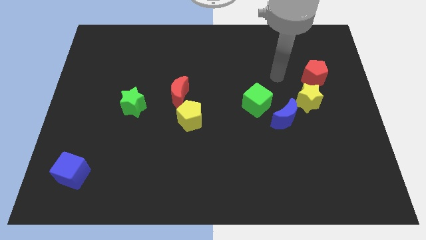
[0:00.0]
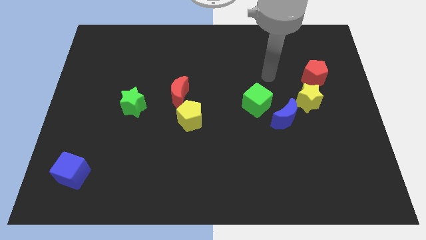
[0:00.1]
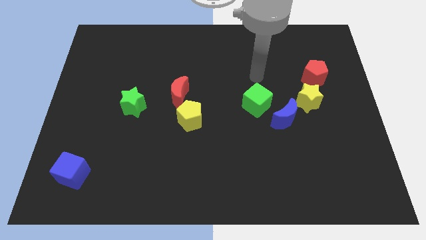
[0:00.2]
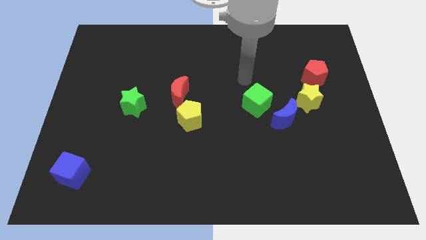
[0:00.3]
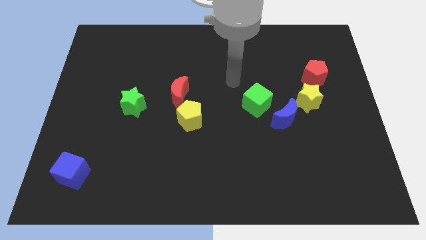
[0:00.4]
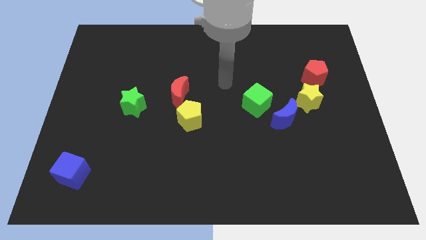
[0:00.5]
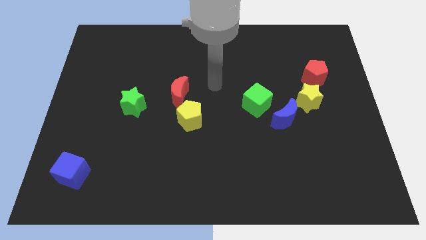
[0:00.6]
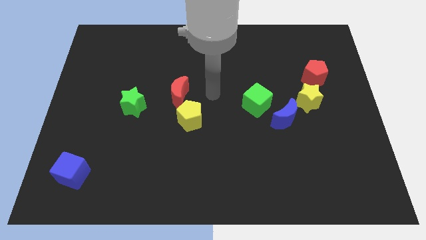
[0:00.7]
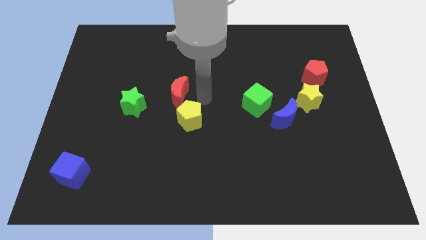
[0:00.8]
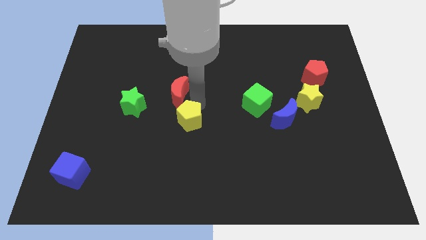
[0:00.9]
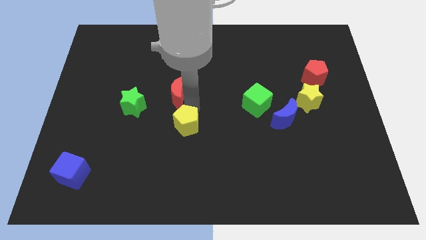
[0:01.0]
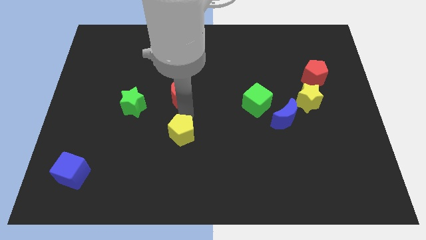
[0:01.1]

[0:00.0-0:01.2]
move the red moon away from the yellow pentagon

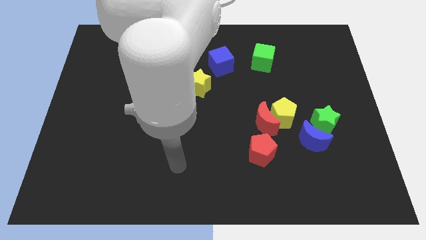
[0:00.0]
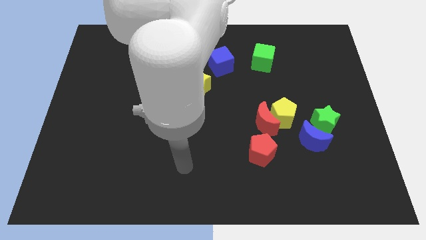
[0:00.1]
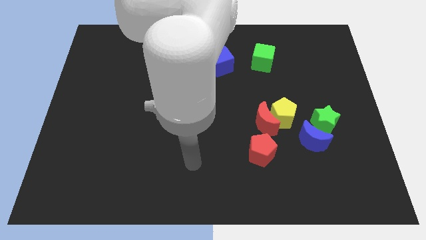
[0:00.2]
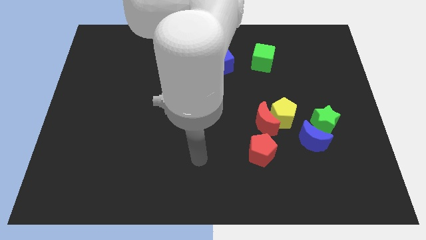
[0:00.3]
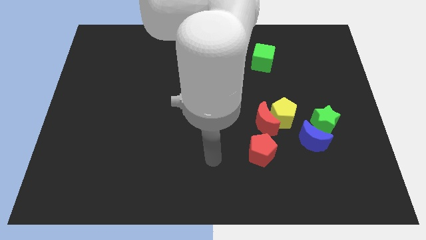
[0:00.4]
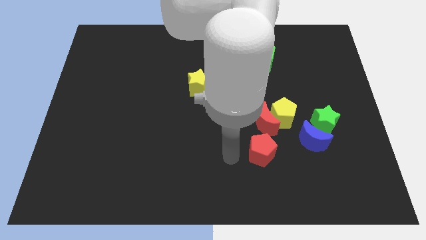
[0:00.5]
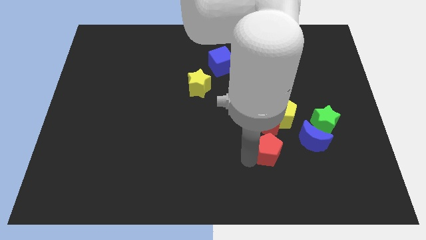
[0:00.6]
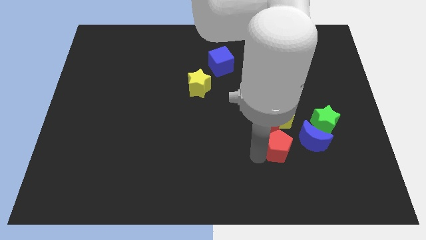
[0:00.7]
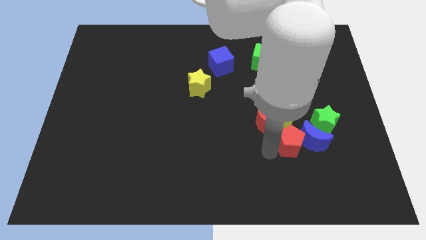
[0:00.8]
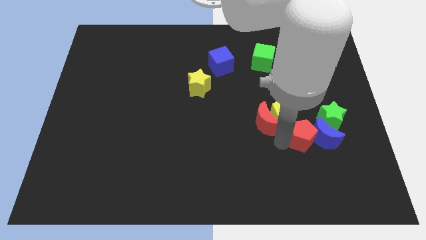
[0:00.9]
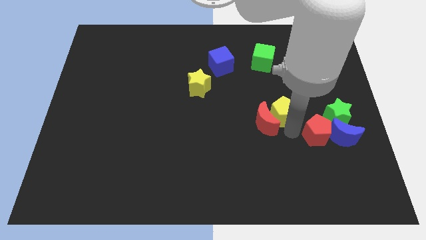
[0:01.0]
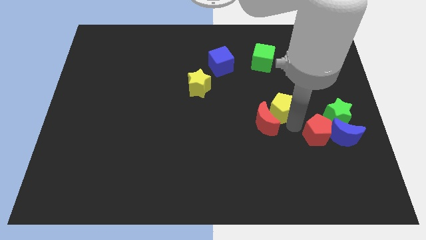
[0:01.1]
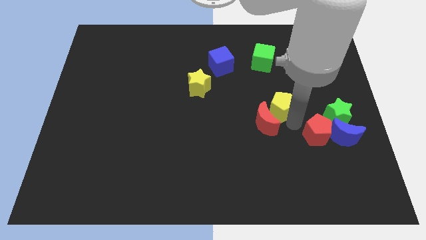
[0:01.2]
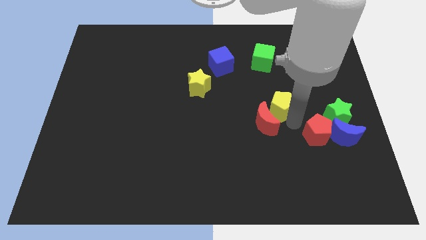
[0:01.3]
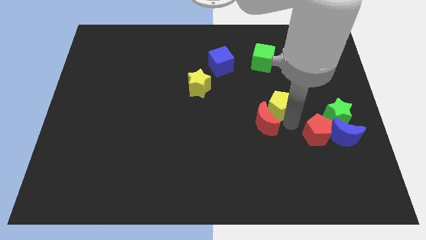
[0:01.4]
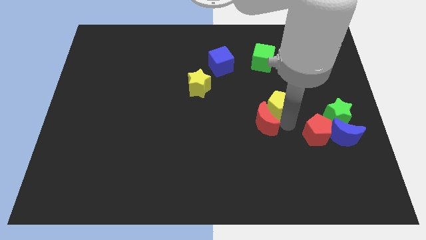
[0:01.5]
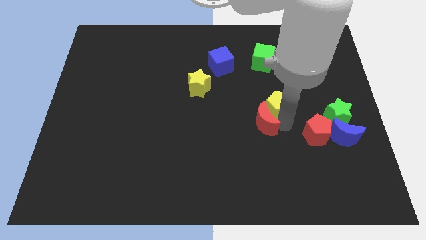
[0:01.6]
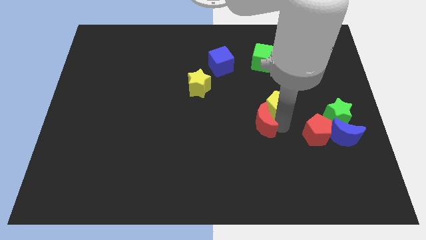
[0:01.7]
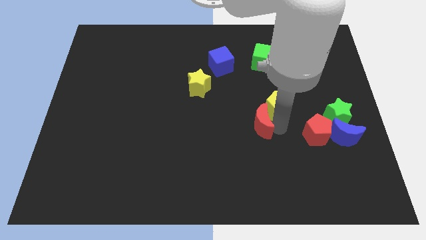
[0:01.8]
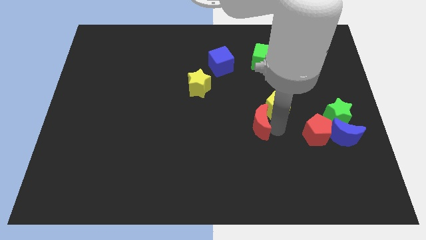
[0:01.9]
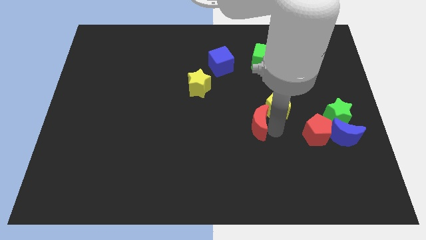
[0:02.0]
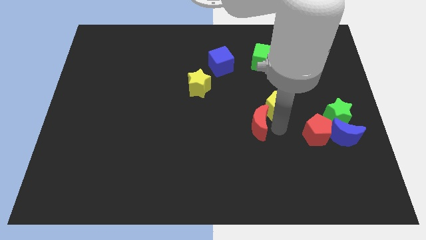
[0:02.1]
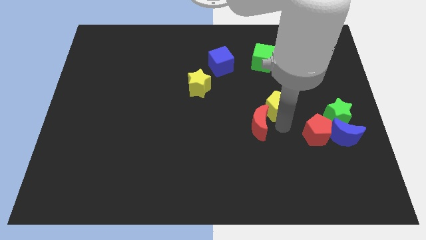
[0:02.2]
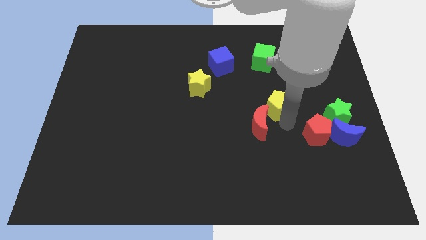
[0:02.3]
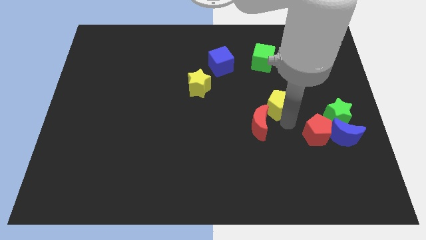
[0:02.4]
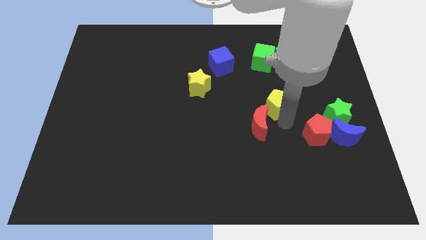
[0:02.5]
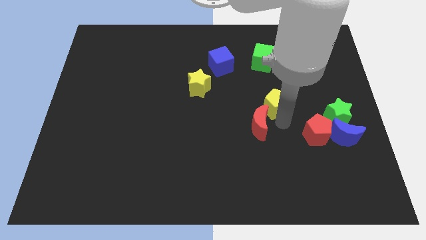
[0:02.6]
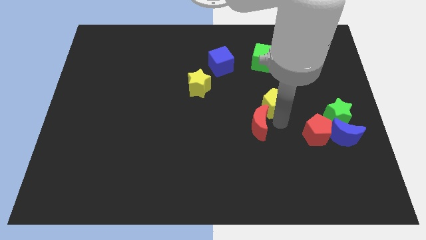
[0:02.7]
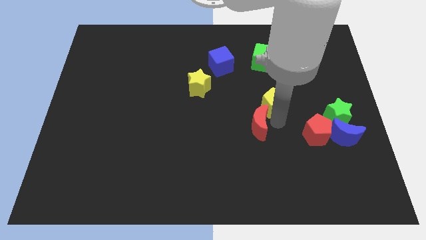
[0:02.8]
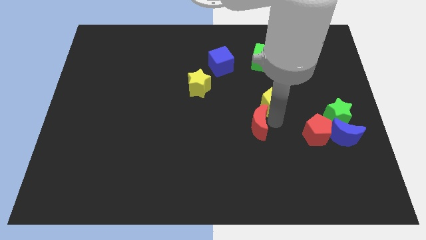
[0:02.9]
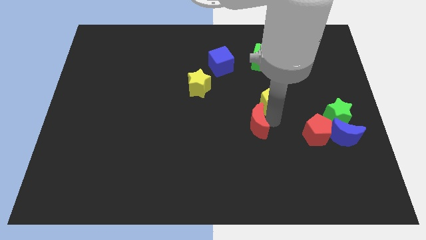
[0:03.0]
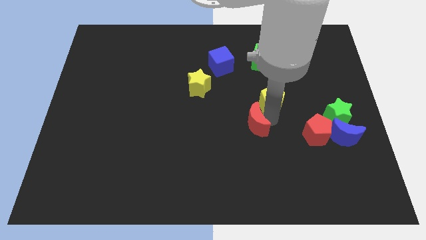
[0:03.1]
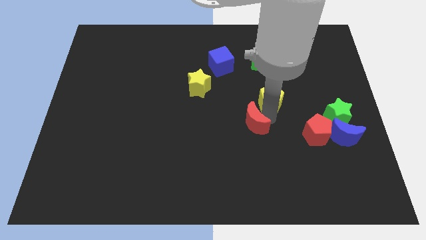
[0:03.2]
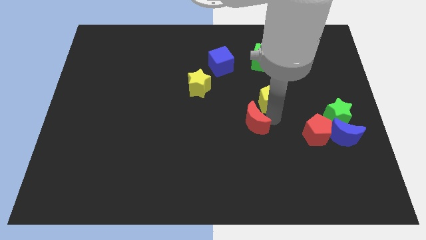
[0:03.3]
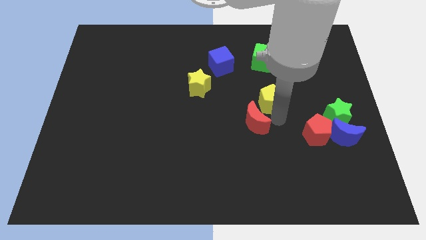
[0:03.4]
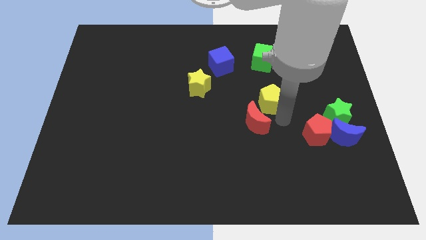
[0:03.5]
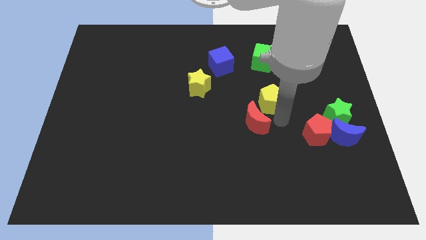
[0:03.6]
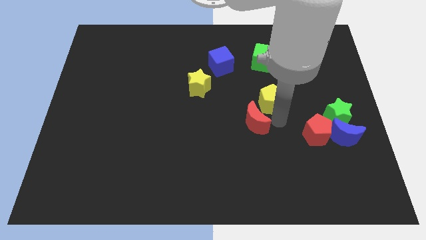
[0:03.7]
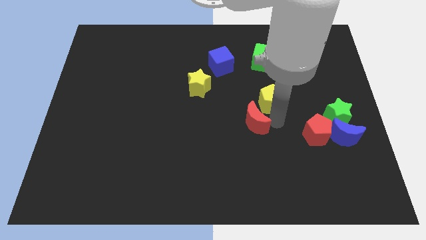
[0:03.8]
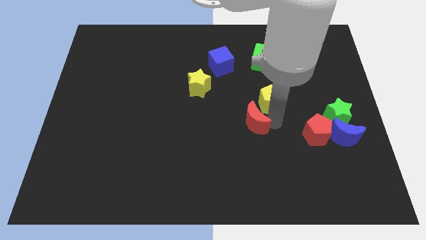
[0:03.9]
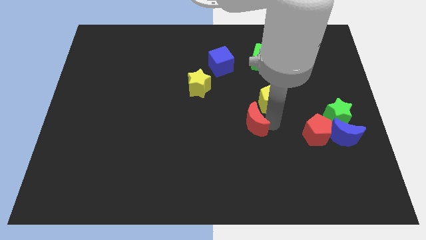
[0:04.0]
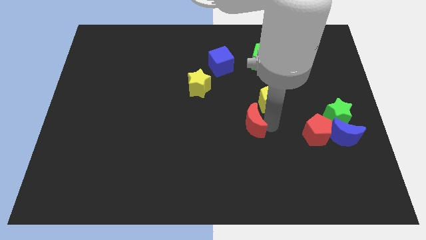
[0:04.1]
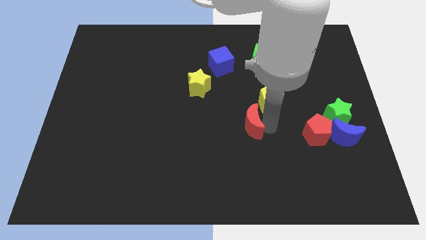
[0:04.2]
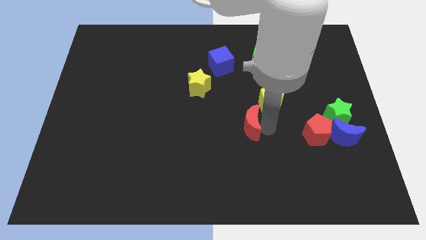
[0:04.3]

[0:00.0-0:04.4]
pull the red moon apart from the yellow pentagon and red pentagon

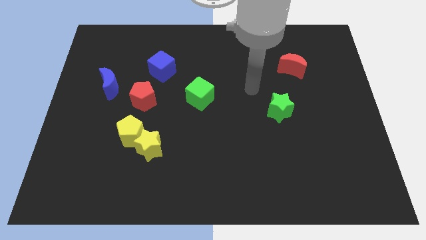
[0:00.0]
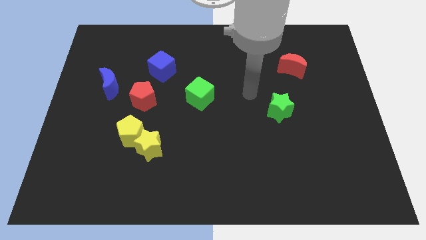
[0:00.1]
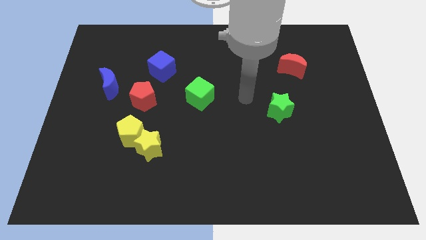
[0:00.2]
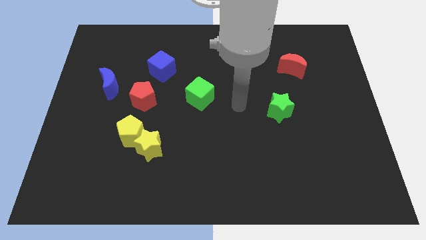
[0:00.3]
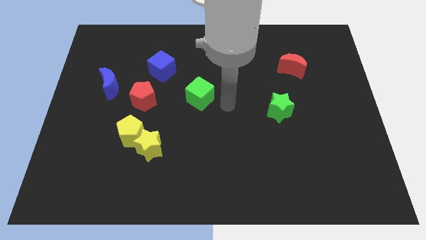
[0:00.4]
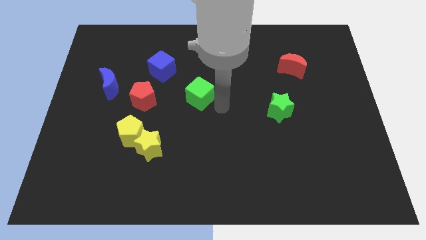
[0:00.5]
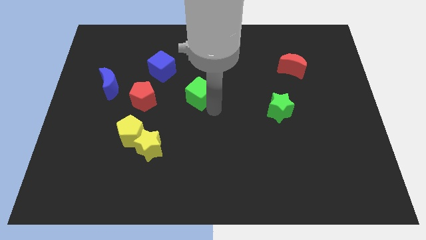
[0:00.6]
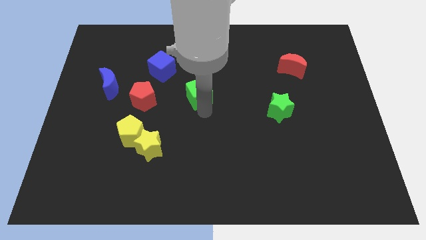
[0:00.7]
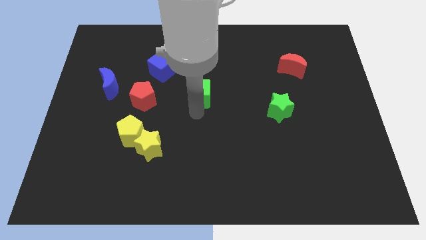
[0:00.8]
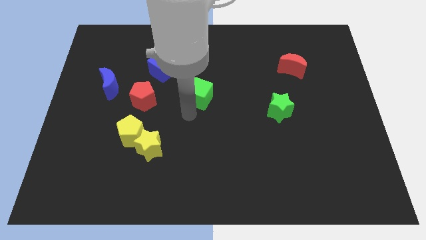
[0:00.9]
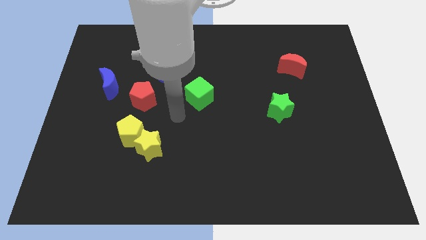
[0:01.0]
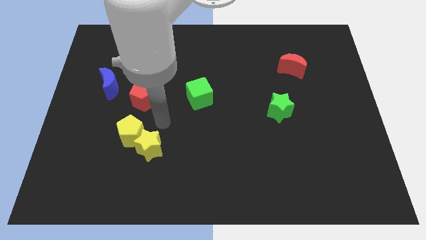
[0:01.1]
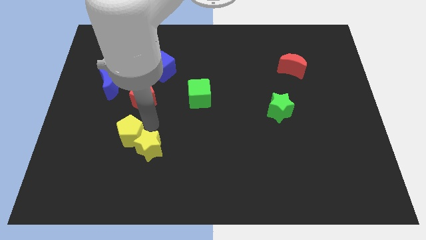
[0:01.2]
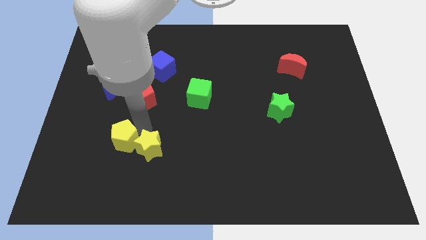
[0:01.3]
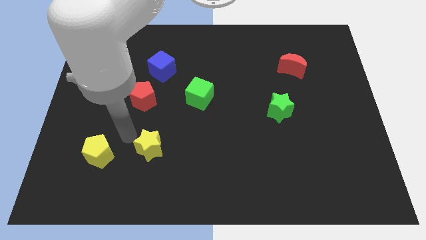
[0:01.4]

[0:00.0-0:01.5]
move the yellow star away from the yellow pentagon

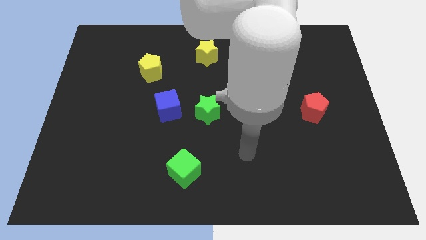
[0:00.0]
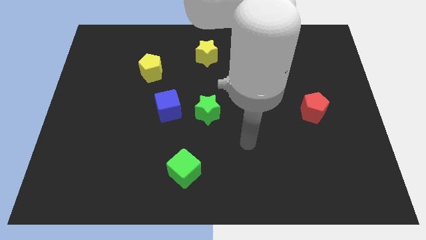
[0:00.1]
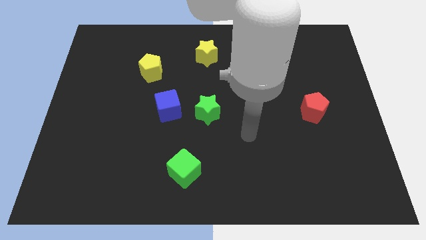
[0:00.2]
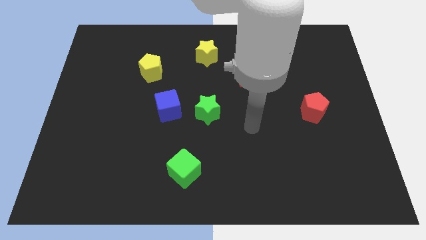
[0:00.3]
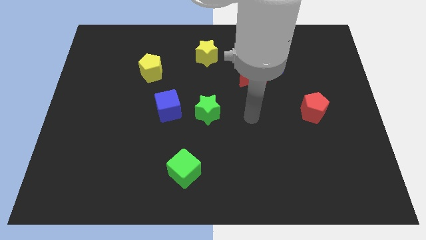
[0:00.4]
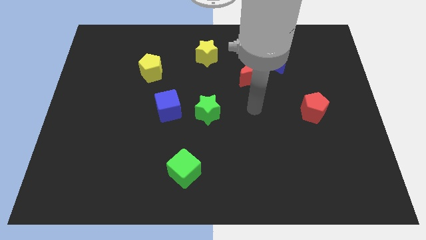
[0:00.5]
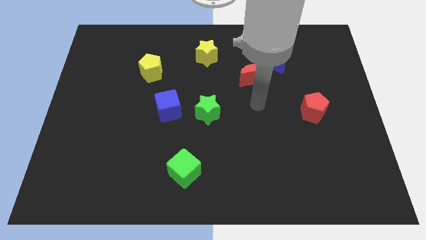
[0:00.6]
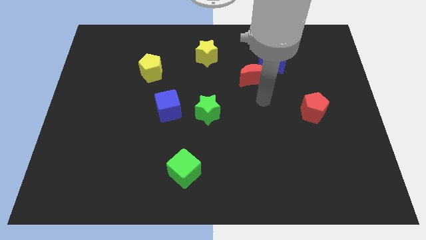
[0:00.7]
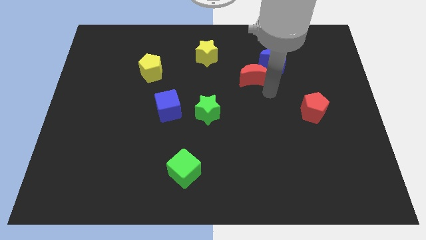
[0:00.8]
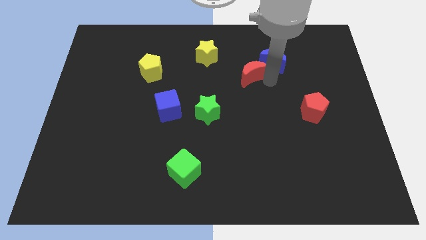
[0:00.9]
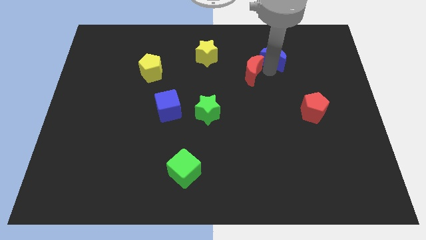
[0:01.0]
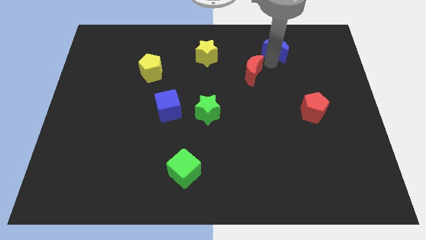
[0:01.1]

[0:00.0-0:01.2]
pull the red moon apart from the blue moon

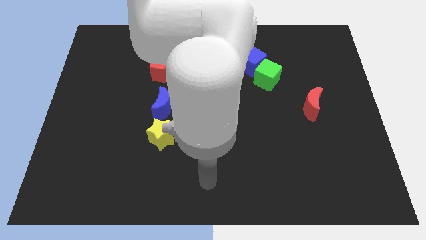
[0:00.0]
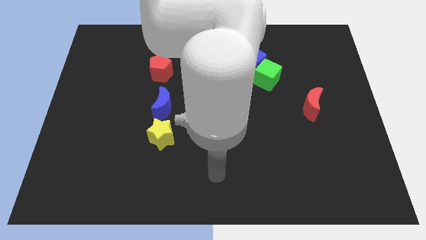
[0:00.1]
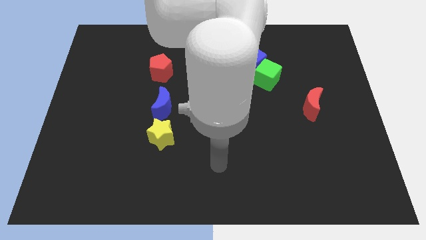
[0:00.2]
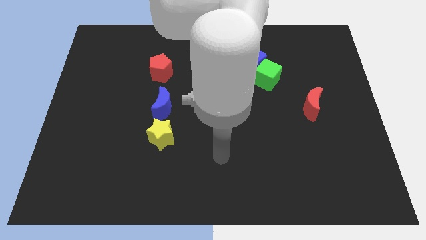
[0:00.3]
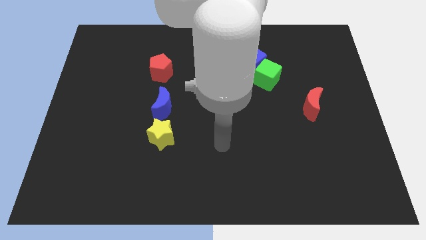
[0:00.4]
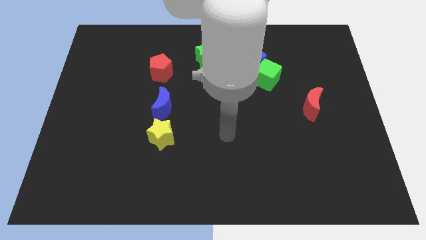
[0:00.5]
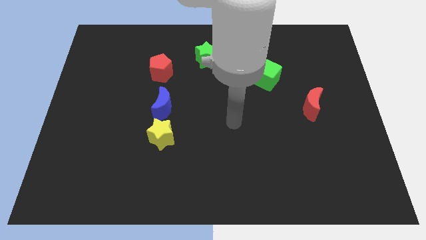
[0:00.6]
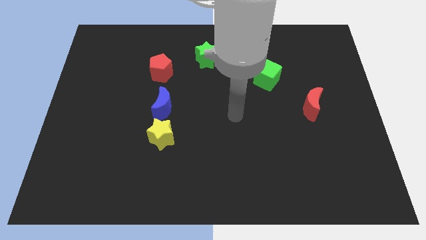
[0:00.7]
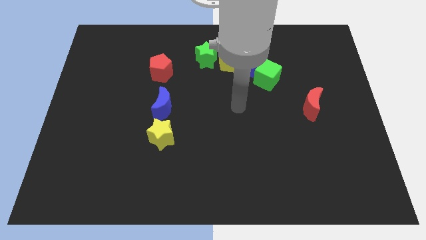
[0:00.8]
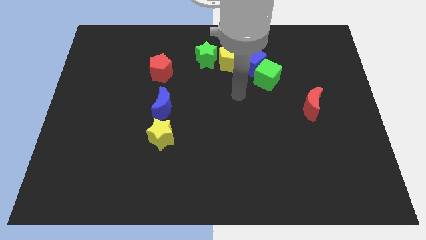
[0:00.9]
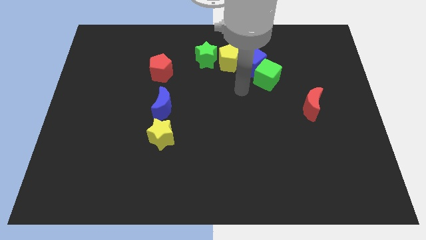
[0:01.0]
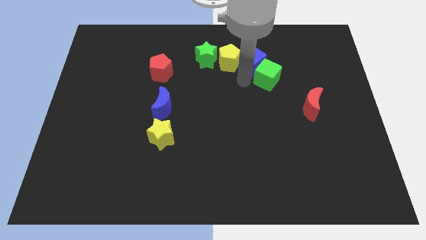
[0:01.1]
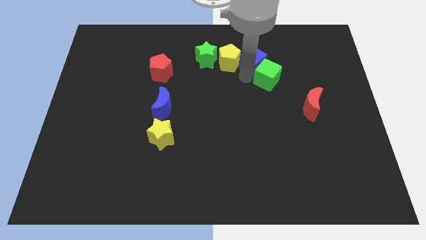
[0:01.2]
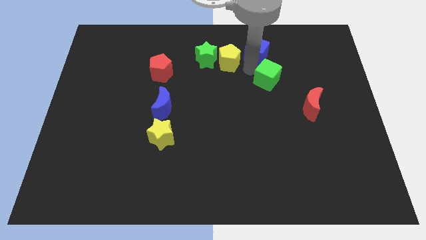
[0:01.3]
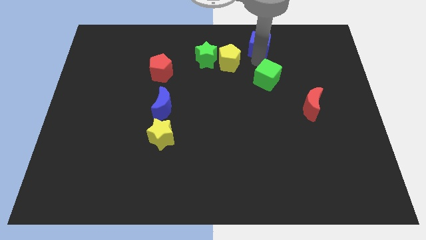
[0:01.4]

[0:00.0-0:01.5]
separate the green cube from the blue cube
